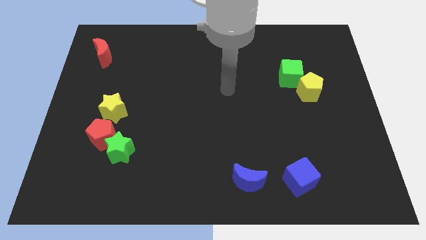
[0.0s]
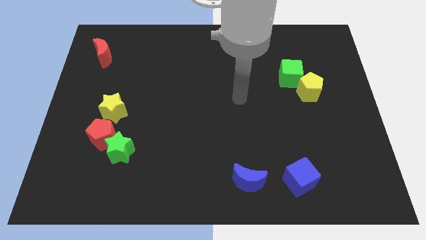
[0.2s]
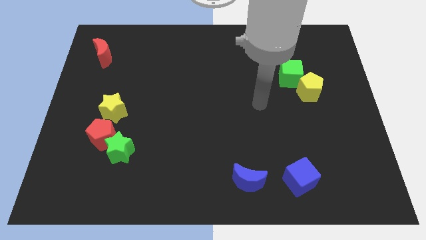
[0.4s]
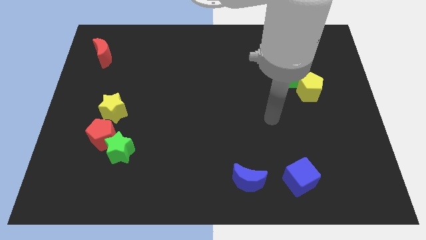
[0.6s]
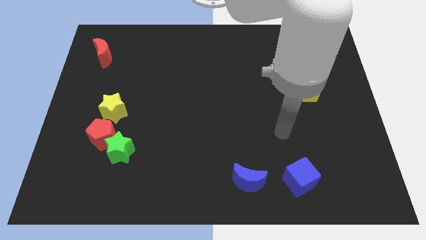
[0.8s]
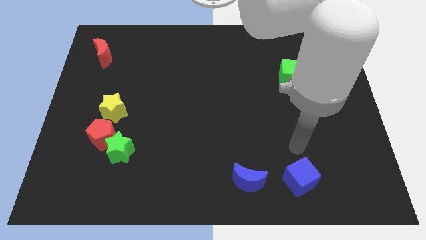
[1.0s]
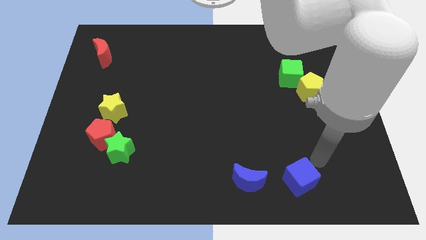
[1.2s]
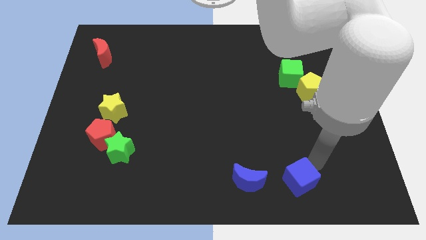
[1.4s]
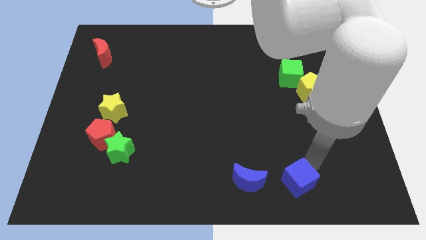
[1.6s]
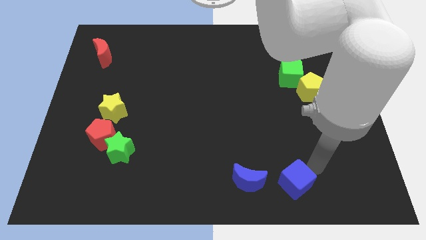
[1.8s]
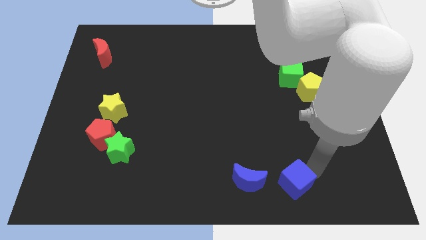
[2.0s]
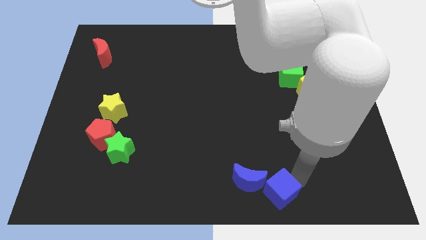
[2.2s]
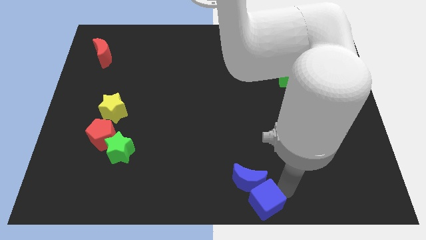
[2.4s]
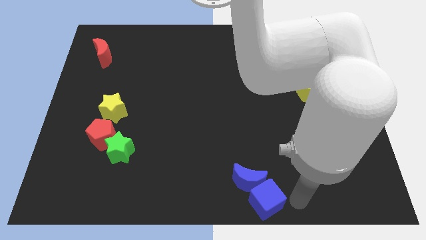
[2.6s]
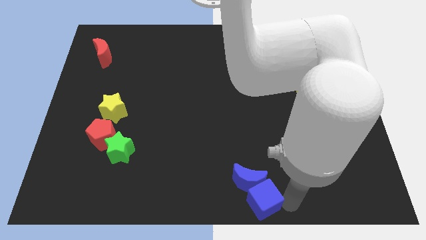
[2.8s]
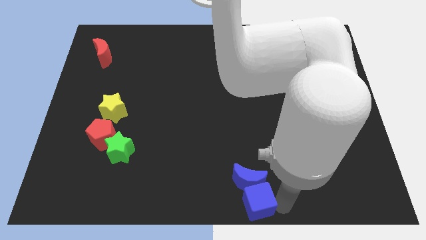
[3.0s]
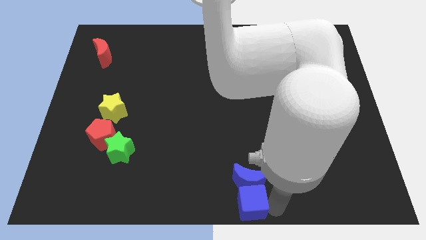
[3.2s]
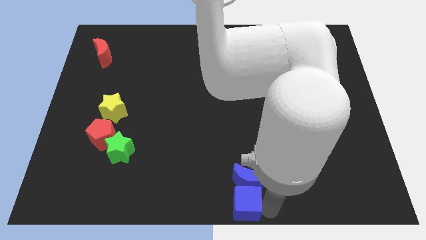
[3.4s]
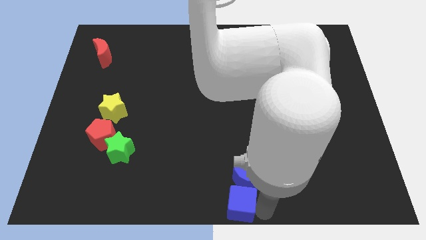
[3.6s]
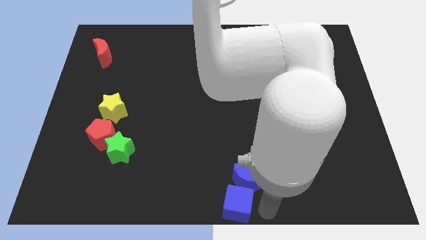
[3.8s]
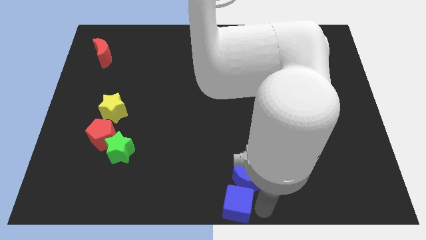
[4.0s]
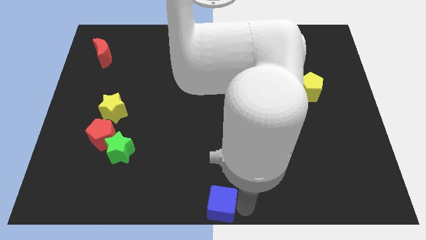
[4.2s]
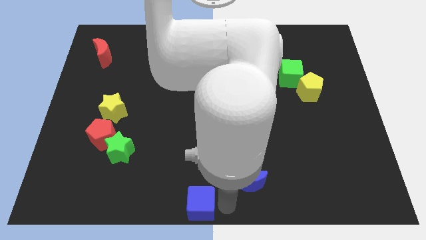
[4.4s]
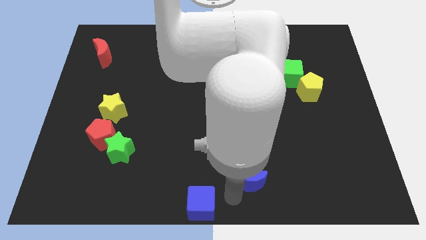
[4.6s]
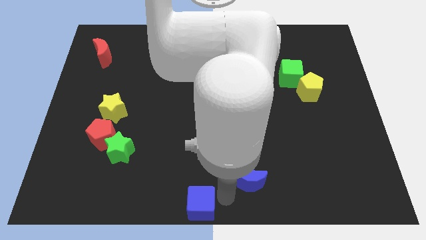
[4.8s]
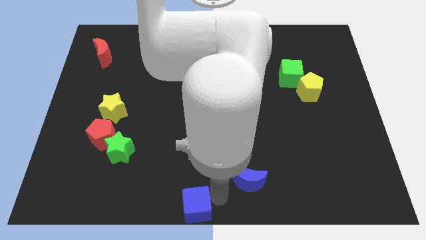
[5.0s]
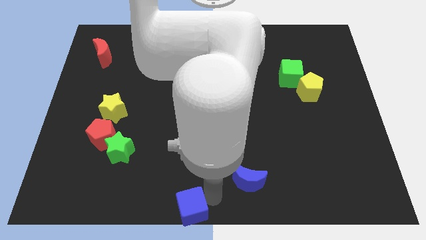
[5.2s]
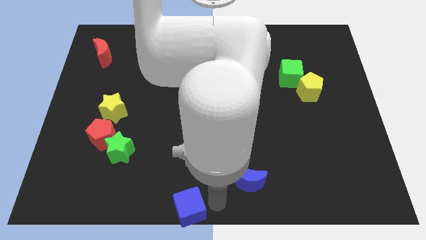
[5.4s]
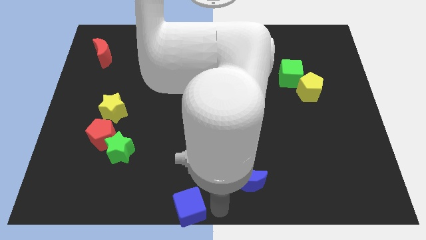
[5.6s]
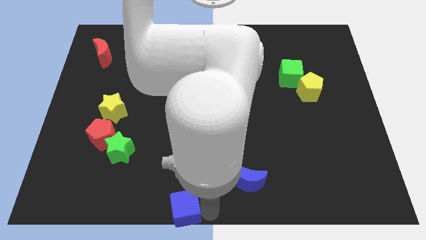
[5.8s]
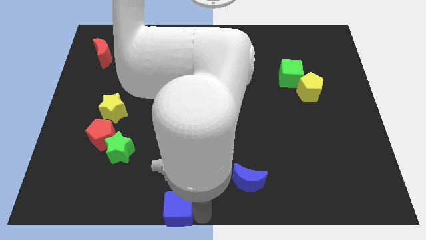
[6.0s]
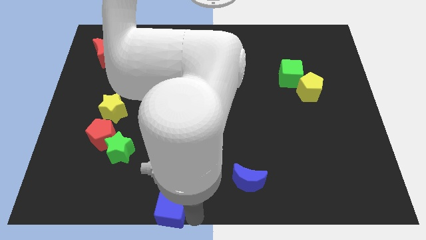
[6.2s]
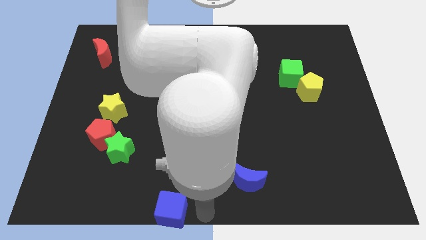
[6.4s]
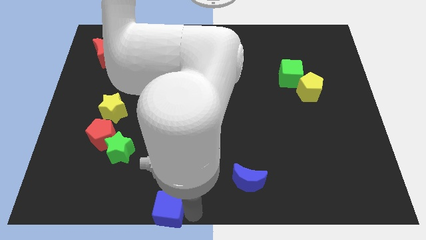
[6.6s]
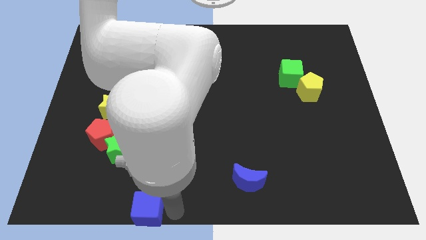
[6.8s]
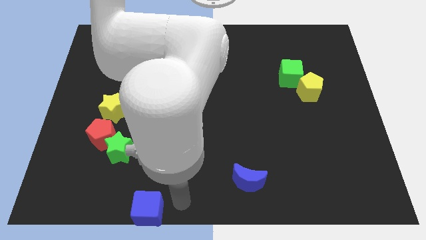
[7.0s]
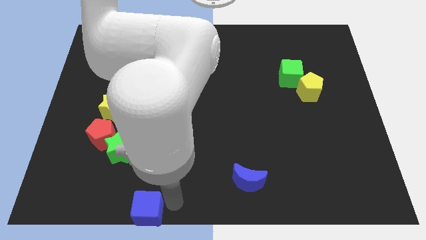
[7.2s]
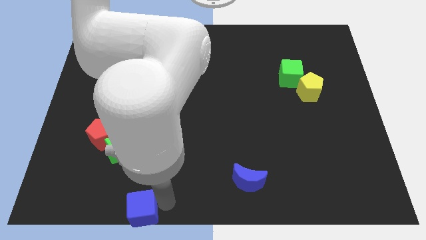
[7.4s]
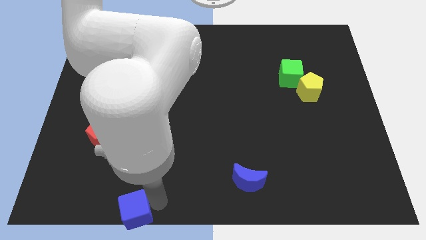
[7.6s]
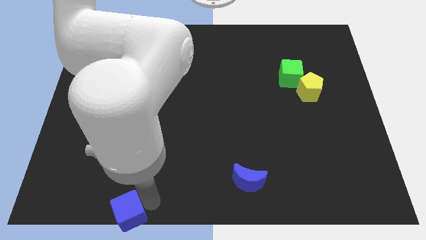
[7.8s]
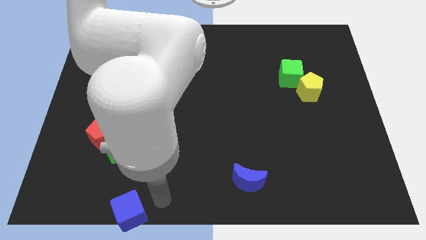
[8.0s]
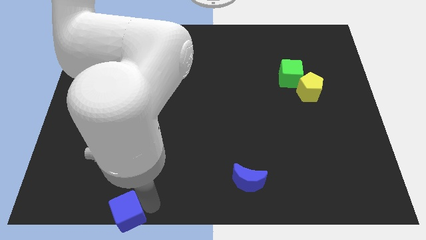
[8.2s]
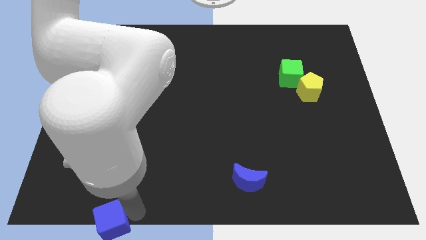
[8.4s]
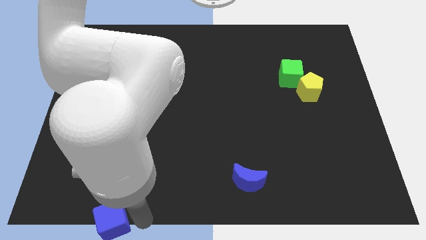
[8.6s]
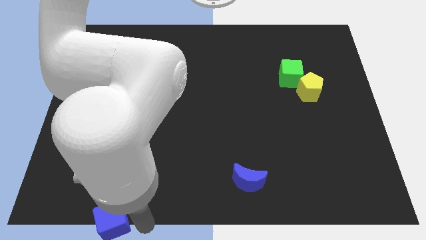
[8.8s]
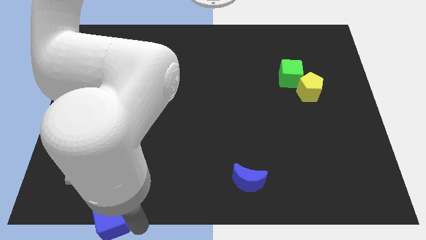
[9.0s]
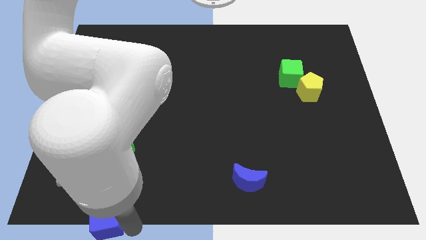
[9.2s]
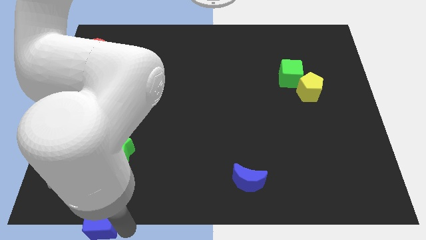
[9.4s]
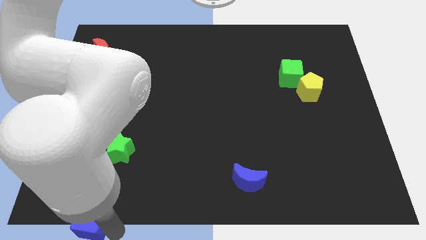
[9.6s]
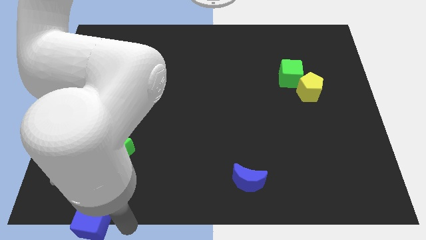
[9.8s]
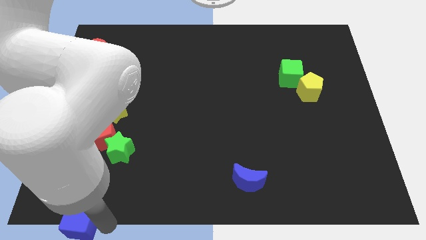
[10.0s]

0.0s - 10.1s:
push the blue cube to the lower left corner

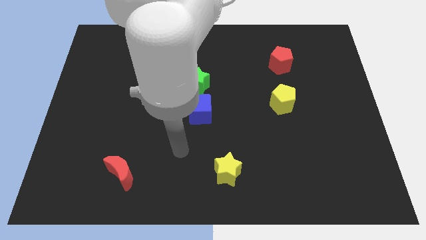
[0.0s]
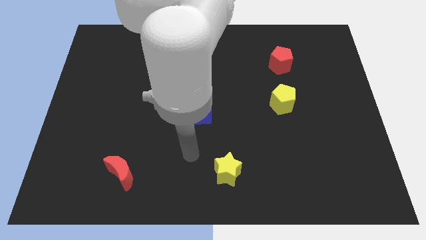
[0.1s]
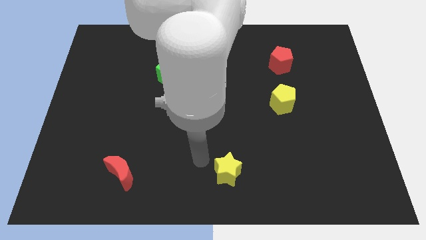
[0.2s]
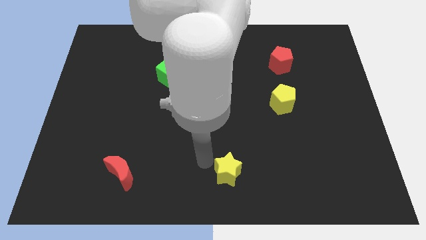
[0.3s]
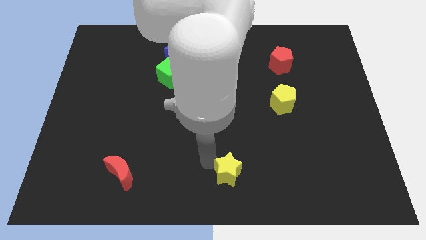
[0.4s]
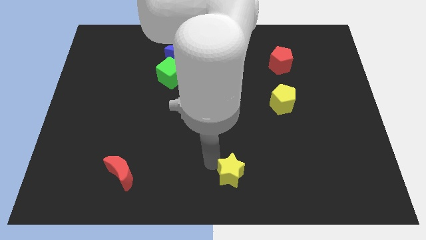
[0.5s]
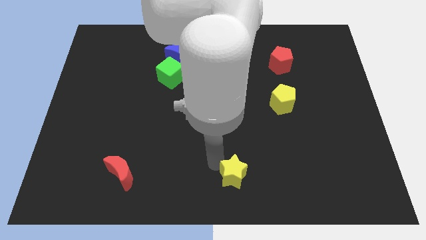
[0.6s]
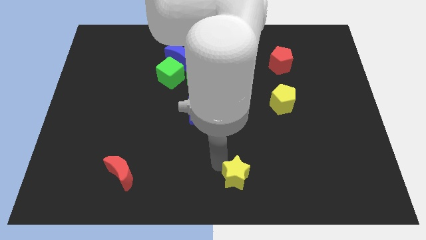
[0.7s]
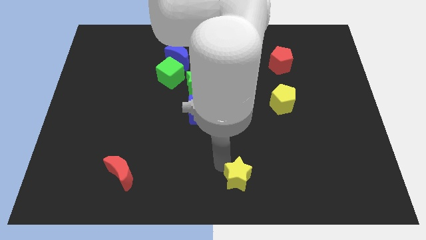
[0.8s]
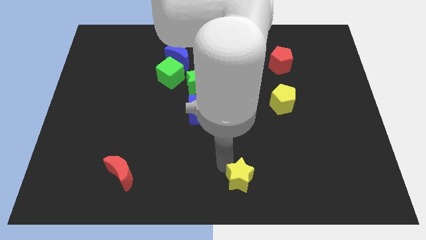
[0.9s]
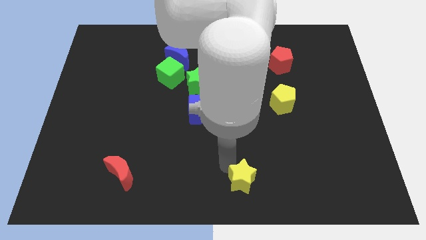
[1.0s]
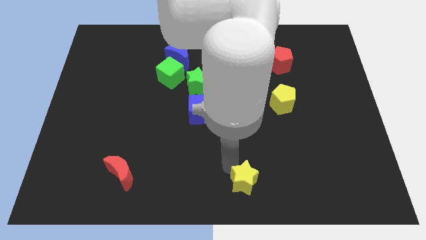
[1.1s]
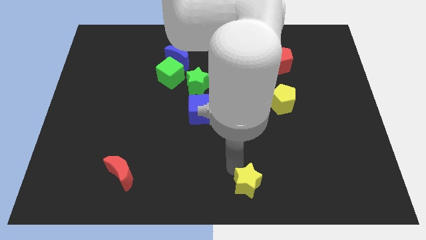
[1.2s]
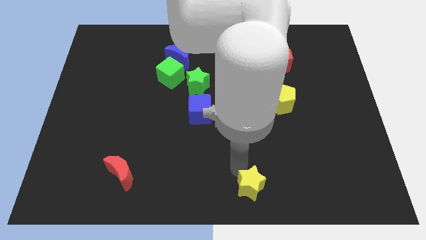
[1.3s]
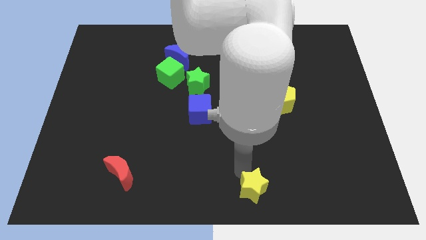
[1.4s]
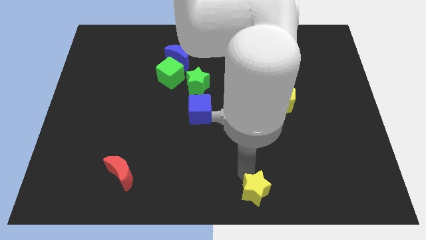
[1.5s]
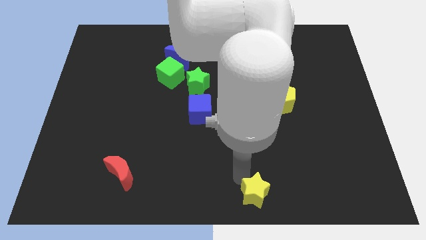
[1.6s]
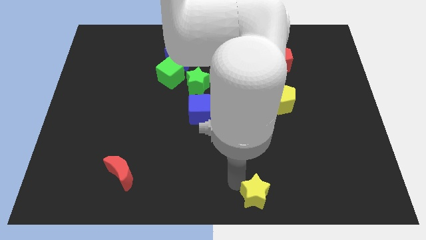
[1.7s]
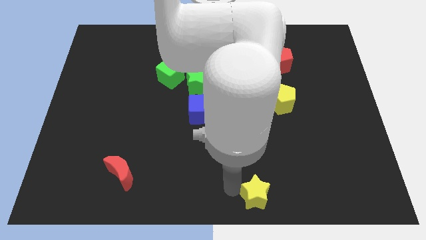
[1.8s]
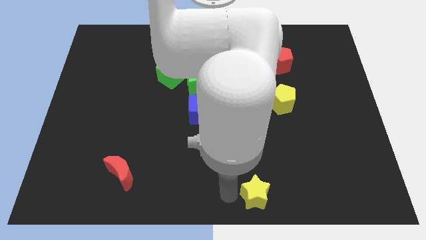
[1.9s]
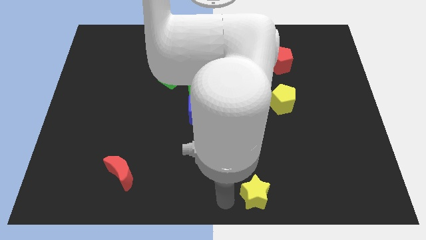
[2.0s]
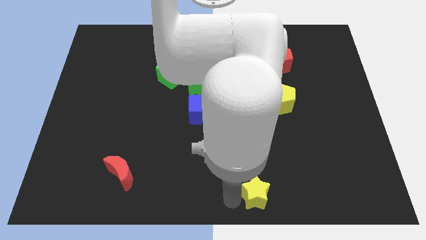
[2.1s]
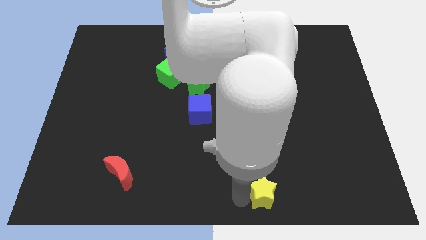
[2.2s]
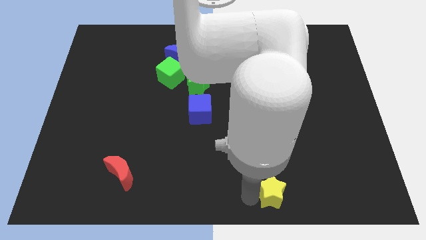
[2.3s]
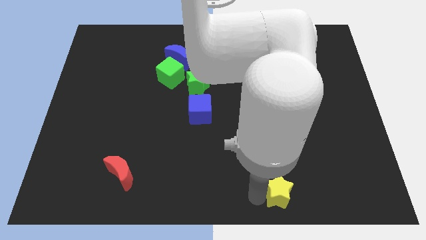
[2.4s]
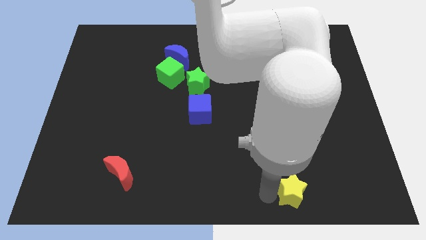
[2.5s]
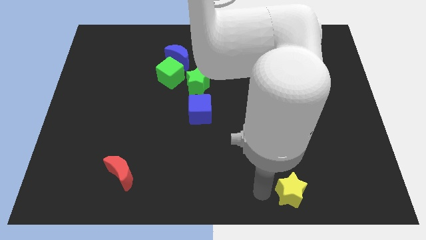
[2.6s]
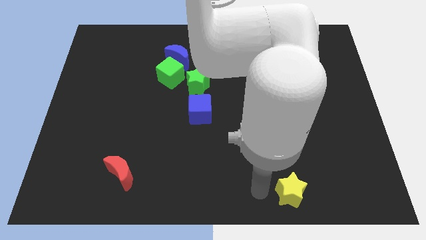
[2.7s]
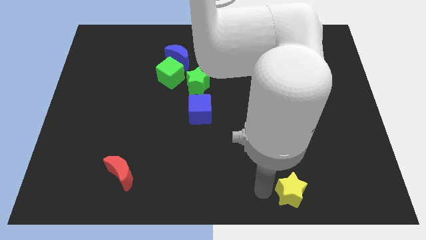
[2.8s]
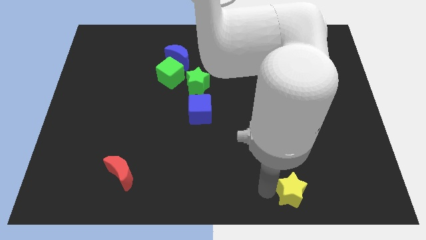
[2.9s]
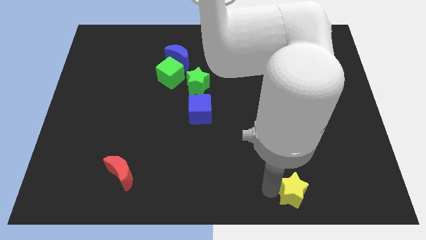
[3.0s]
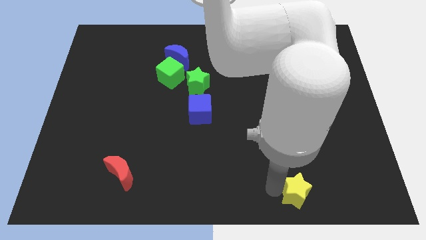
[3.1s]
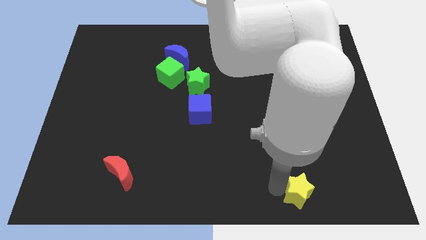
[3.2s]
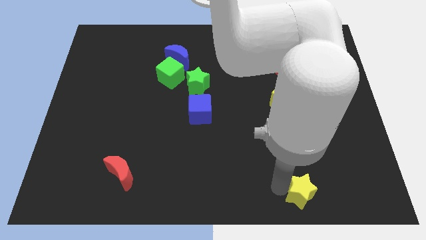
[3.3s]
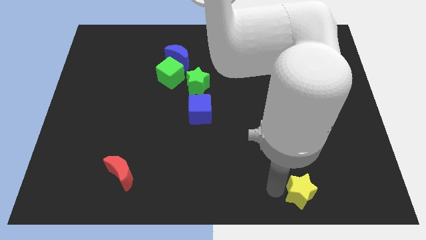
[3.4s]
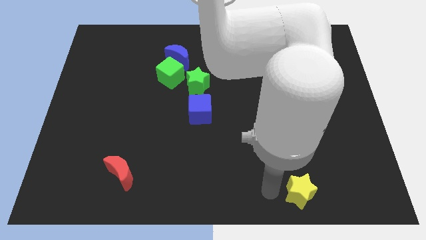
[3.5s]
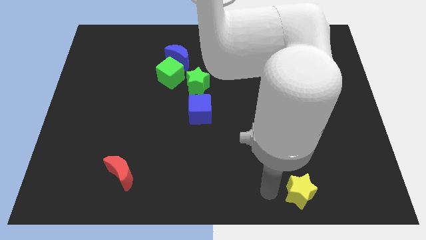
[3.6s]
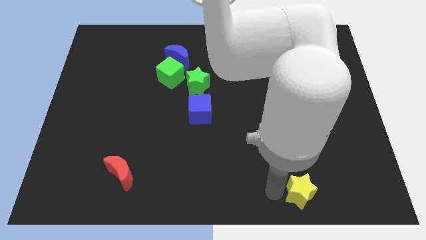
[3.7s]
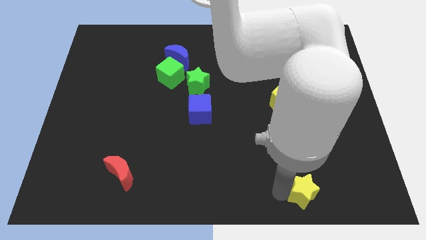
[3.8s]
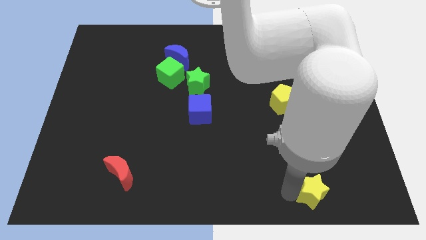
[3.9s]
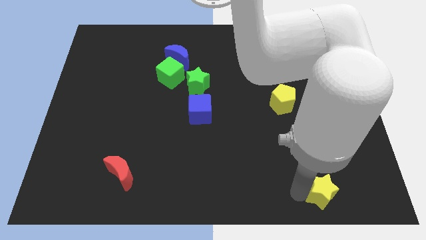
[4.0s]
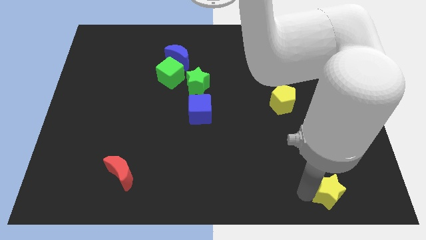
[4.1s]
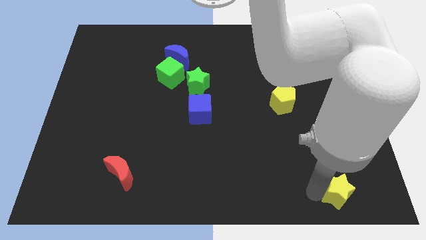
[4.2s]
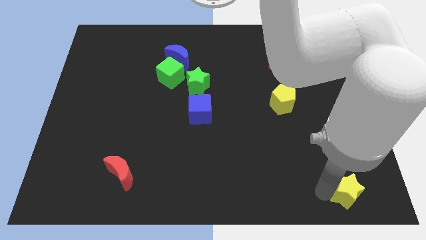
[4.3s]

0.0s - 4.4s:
slide the yellow star to the bottom right corner
